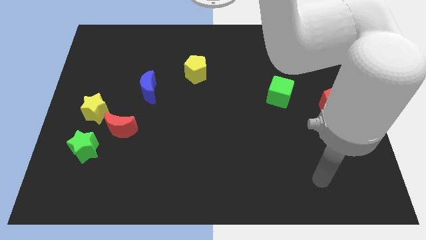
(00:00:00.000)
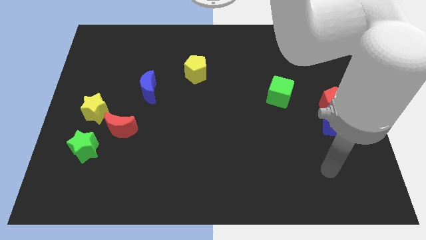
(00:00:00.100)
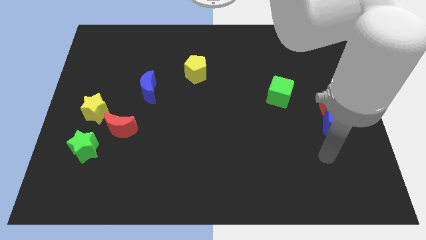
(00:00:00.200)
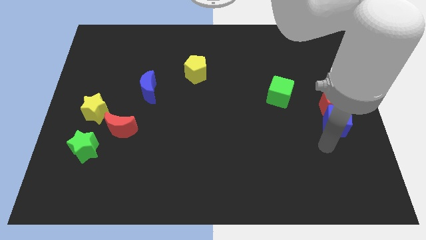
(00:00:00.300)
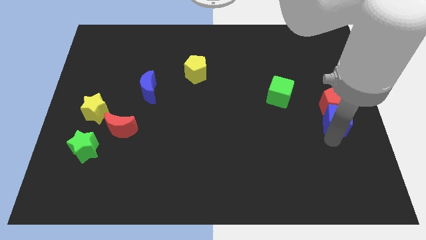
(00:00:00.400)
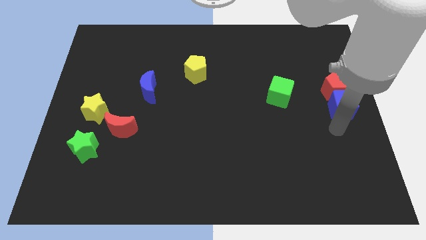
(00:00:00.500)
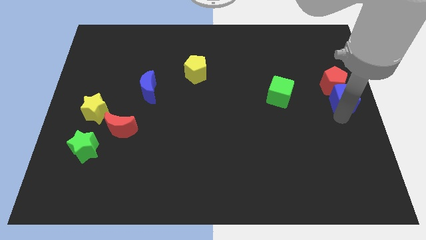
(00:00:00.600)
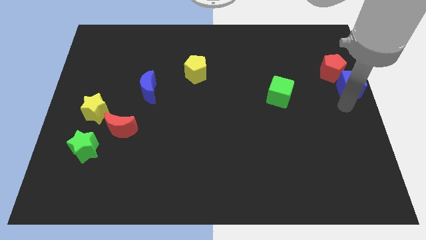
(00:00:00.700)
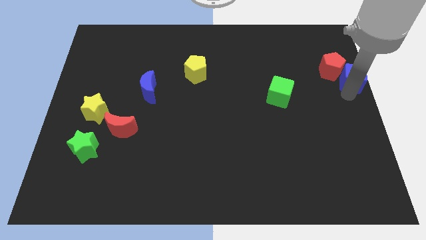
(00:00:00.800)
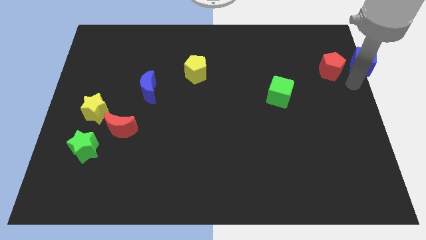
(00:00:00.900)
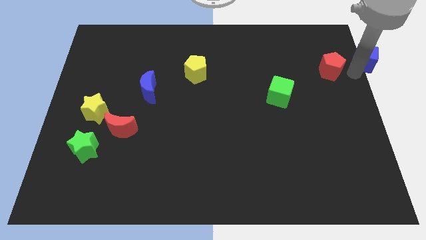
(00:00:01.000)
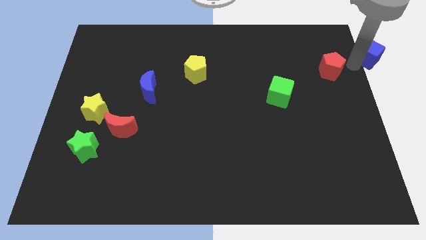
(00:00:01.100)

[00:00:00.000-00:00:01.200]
pull the red pentagon apart from the blue cube

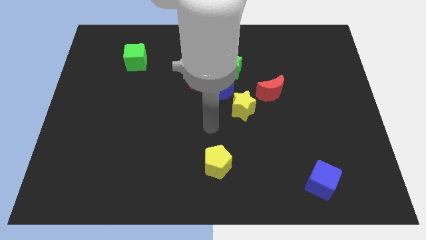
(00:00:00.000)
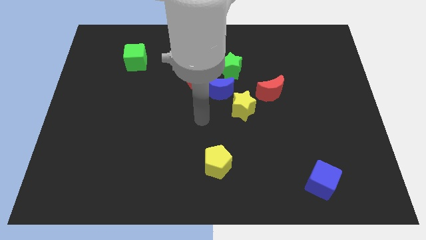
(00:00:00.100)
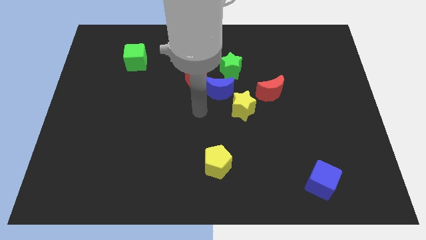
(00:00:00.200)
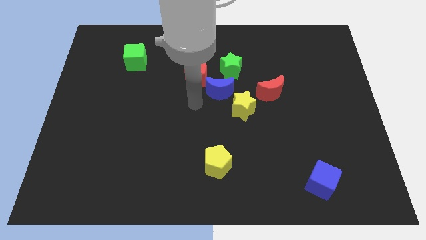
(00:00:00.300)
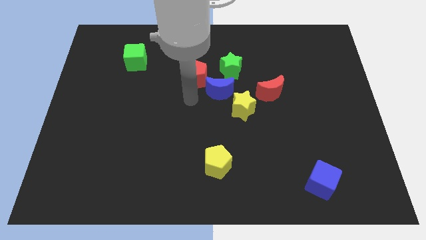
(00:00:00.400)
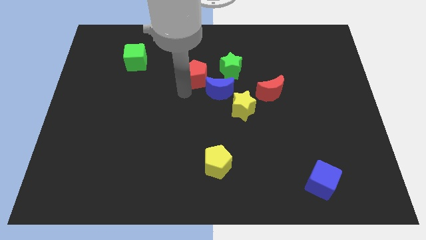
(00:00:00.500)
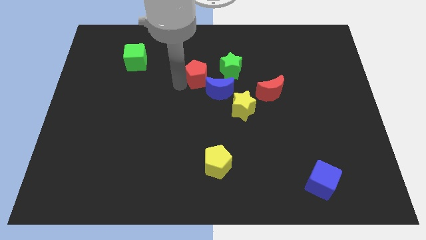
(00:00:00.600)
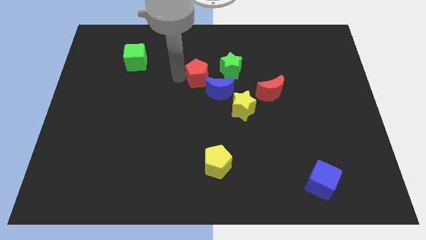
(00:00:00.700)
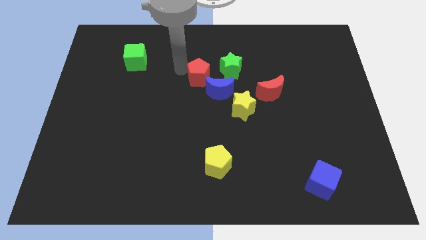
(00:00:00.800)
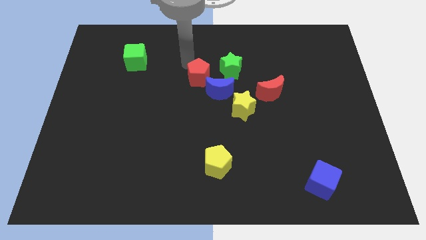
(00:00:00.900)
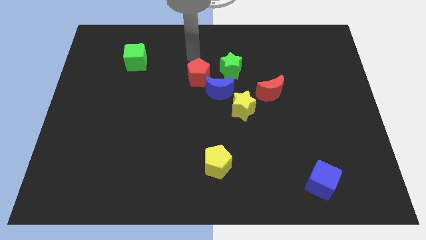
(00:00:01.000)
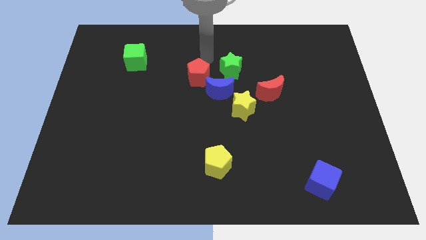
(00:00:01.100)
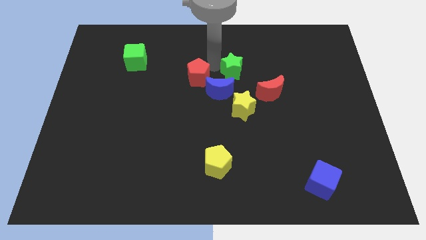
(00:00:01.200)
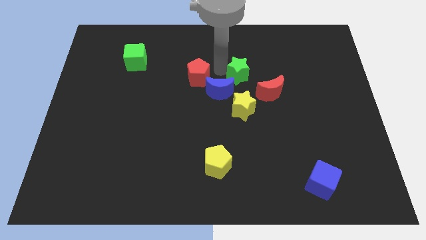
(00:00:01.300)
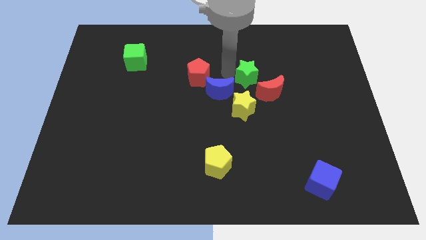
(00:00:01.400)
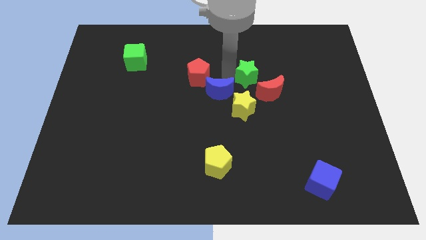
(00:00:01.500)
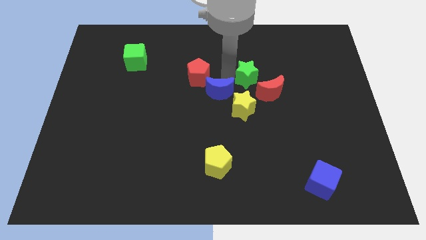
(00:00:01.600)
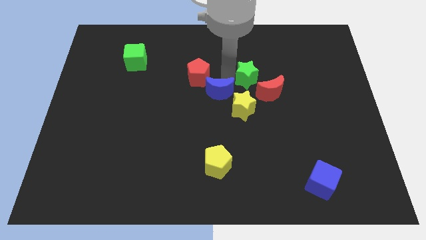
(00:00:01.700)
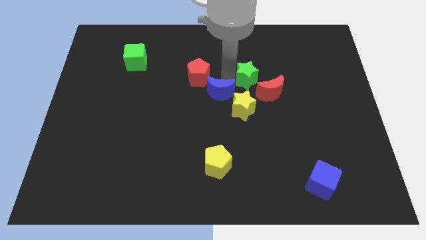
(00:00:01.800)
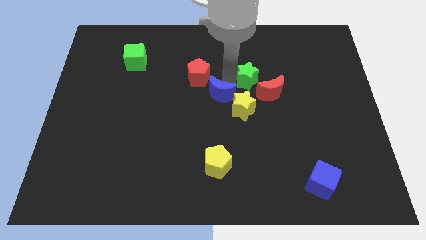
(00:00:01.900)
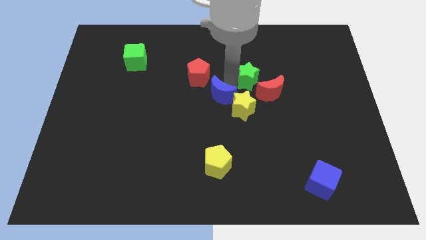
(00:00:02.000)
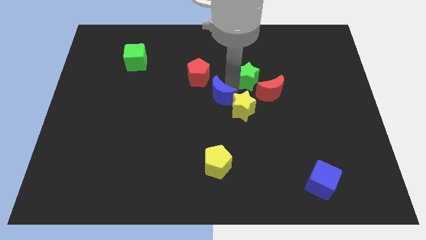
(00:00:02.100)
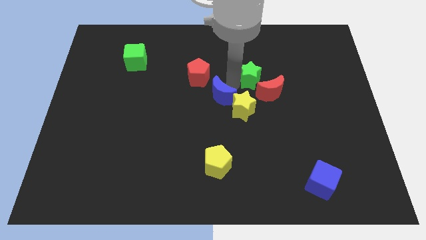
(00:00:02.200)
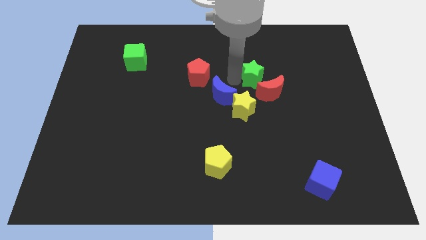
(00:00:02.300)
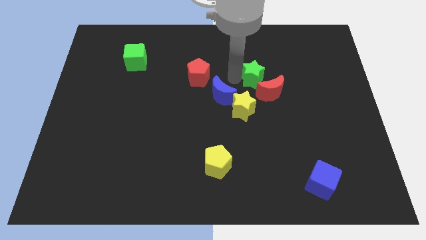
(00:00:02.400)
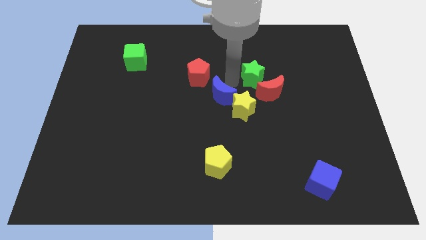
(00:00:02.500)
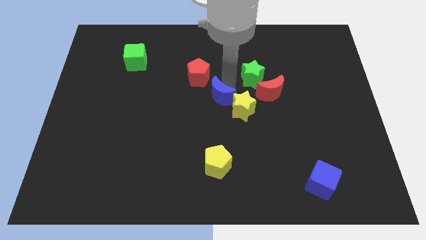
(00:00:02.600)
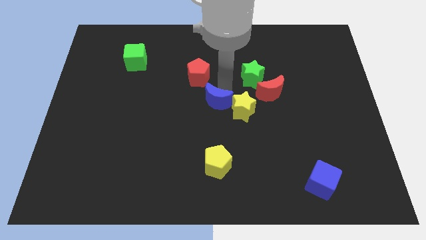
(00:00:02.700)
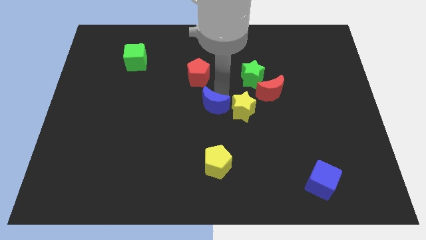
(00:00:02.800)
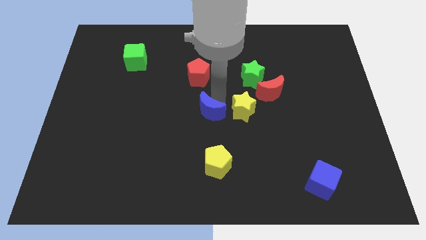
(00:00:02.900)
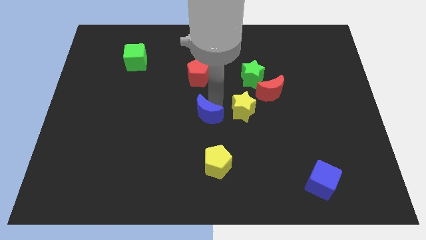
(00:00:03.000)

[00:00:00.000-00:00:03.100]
move the blue moon away from the red pentagon, yellow star, and green star

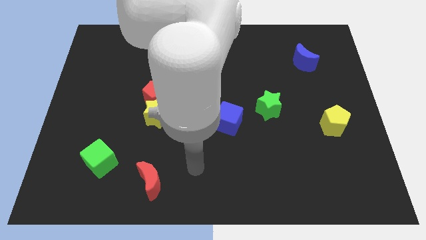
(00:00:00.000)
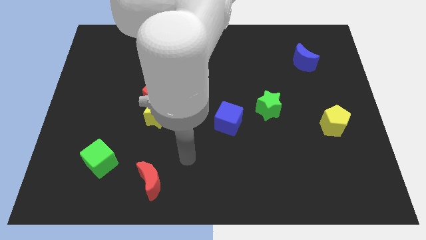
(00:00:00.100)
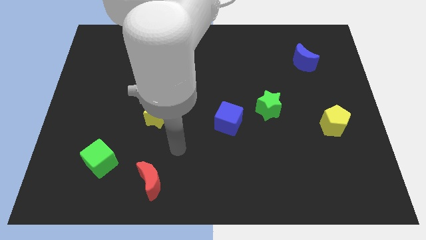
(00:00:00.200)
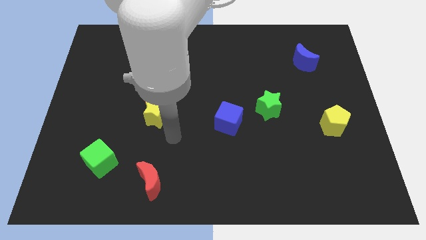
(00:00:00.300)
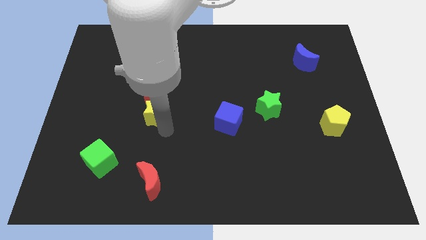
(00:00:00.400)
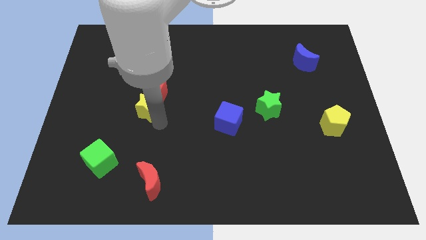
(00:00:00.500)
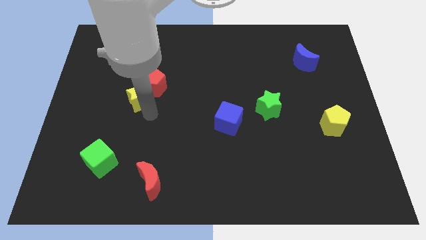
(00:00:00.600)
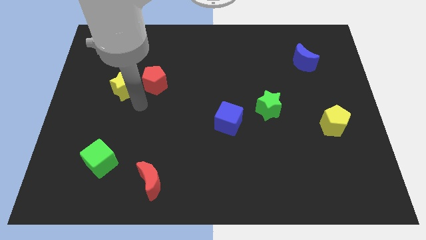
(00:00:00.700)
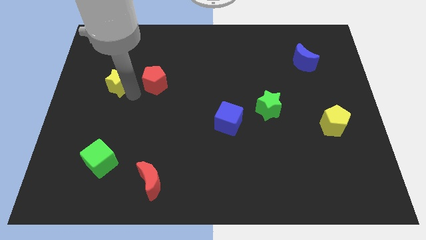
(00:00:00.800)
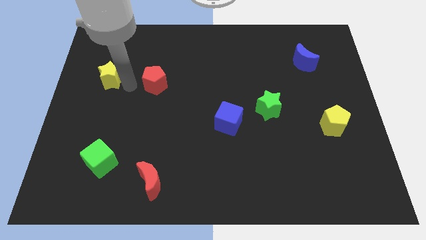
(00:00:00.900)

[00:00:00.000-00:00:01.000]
separate the red pentagon from the yellow star

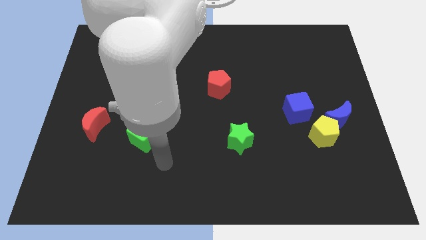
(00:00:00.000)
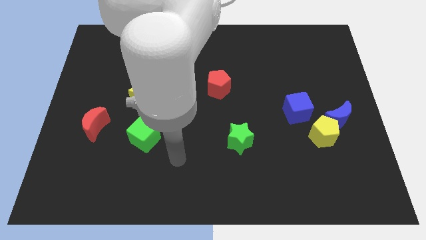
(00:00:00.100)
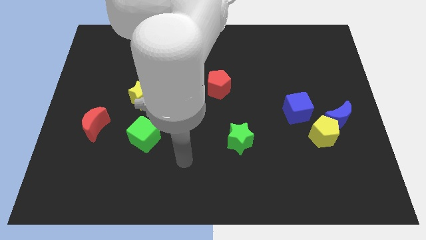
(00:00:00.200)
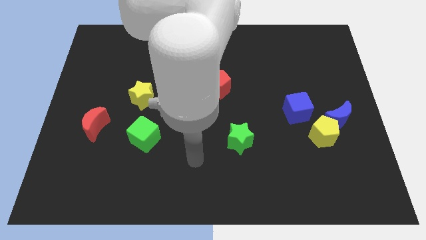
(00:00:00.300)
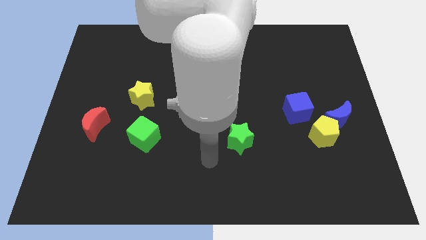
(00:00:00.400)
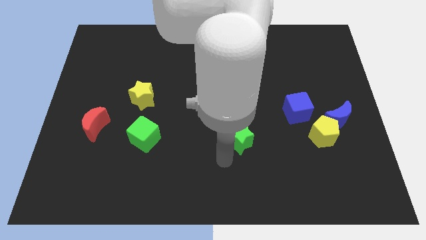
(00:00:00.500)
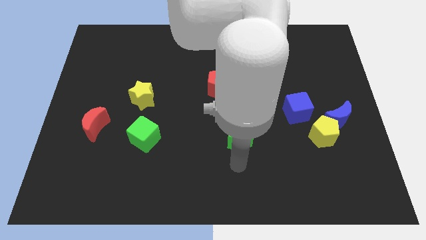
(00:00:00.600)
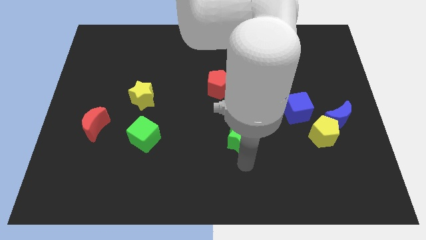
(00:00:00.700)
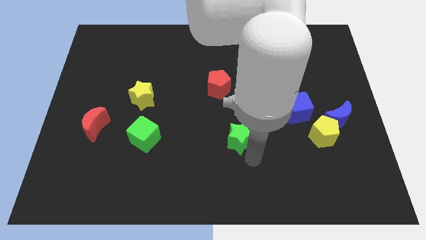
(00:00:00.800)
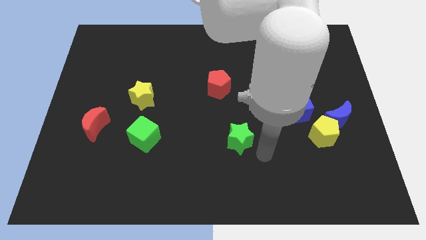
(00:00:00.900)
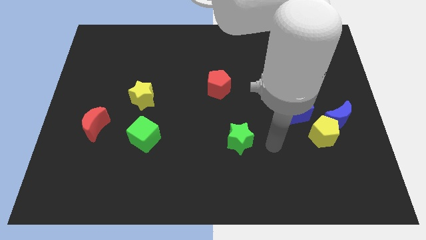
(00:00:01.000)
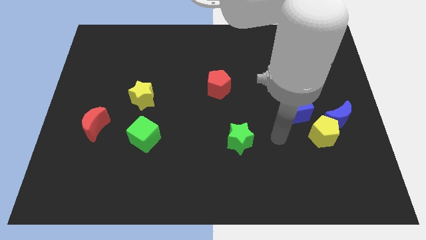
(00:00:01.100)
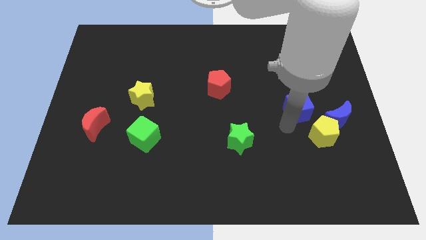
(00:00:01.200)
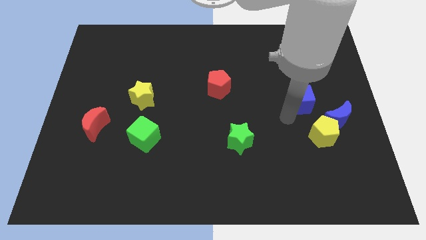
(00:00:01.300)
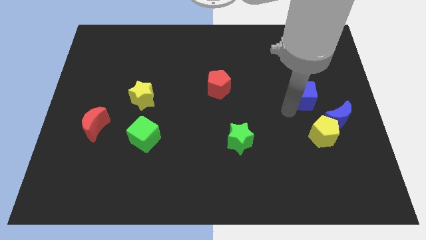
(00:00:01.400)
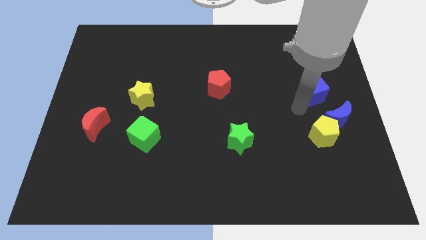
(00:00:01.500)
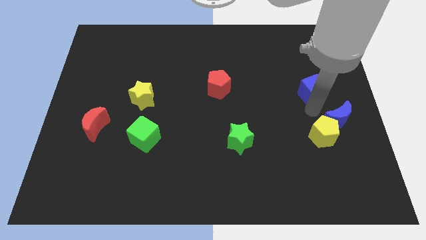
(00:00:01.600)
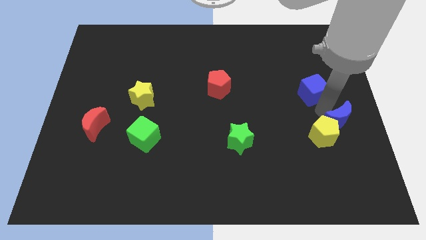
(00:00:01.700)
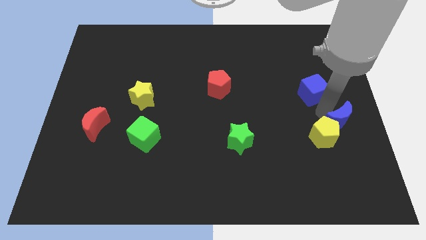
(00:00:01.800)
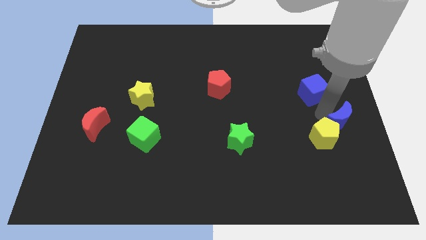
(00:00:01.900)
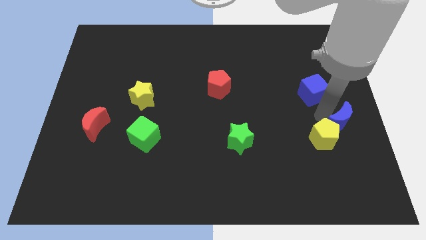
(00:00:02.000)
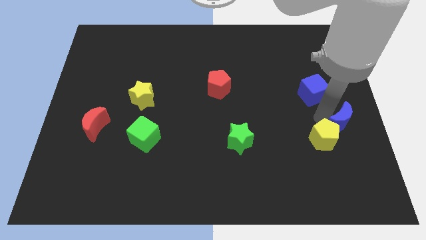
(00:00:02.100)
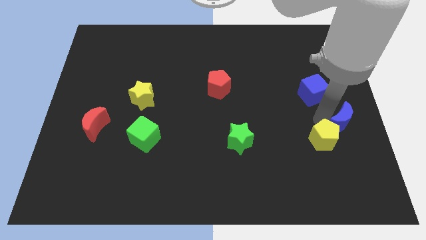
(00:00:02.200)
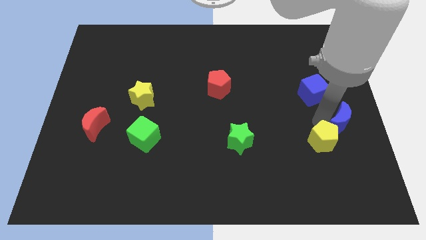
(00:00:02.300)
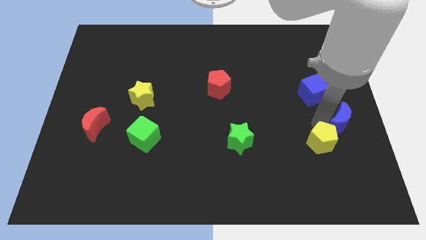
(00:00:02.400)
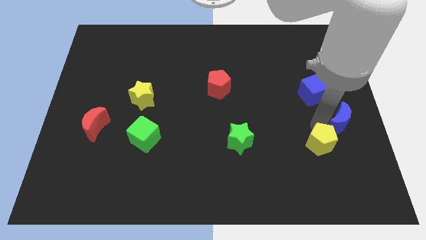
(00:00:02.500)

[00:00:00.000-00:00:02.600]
move the yellow pentagon away from the blue moon and blue cube

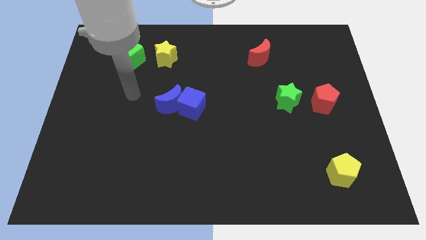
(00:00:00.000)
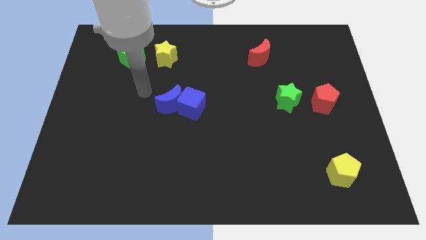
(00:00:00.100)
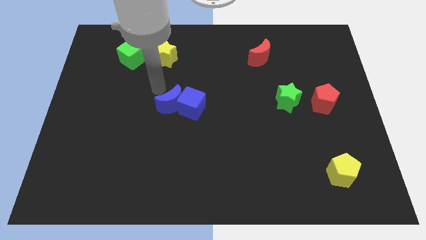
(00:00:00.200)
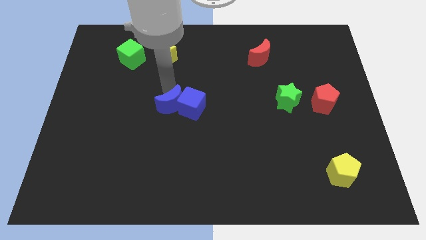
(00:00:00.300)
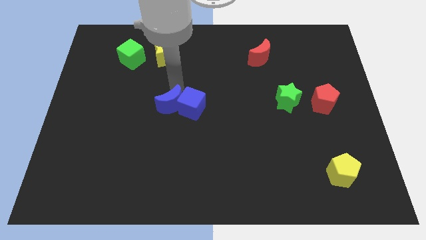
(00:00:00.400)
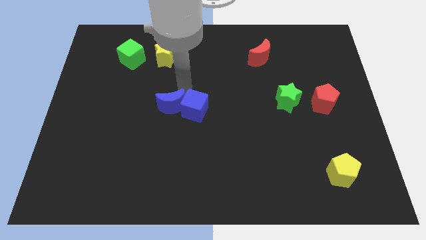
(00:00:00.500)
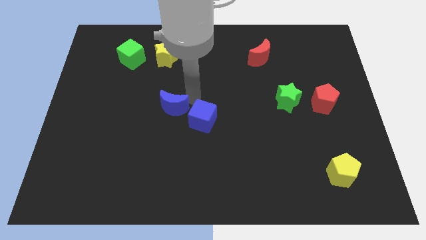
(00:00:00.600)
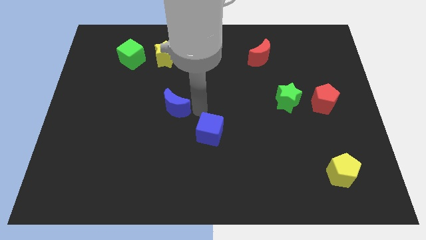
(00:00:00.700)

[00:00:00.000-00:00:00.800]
separate the blue moon from the blue cube

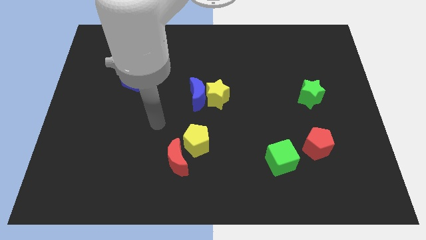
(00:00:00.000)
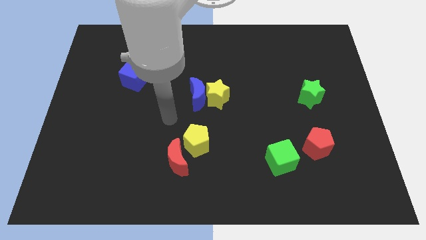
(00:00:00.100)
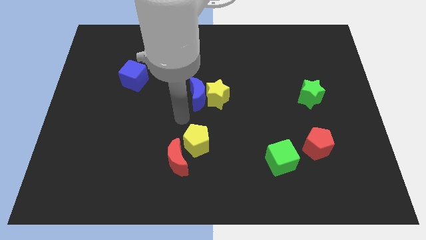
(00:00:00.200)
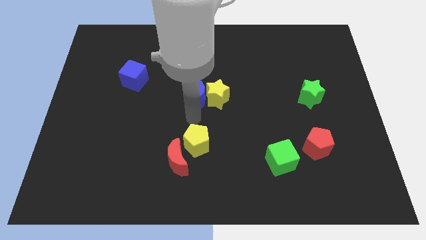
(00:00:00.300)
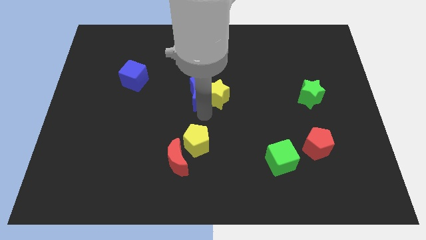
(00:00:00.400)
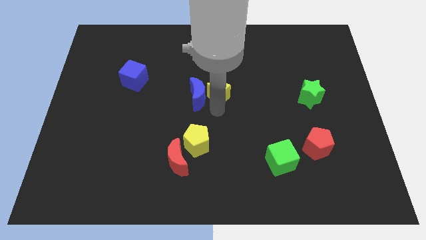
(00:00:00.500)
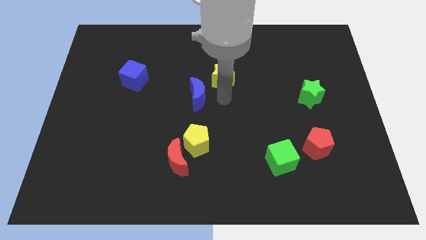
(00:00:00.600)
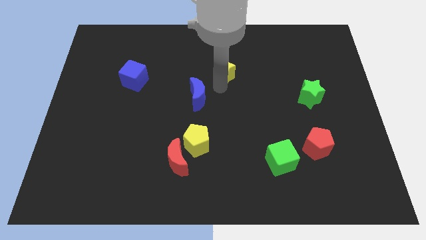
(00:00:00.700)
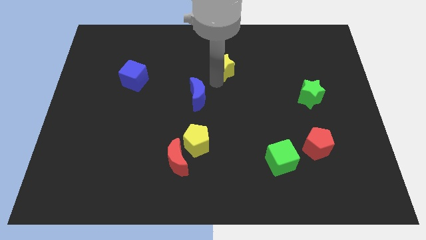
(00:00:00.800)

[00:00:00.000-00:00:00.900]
pull the blue moon apart from the yellow star
